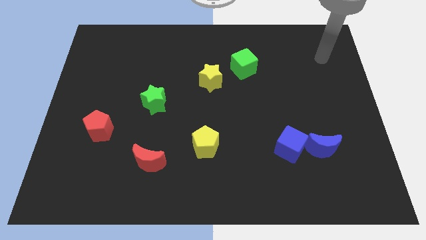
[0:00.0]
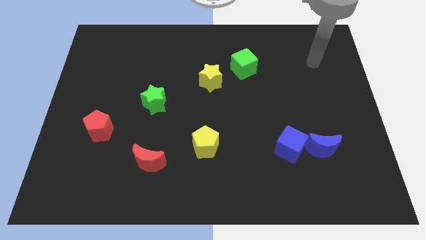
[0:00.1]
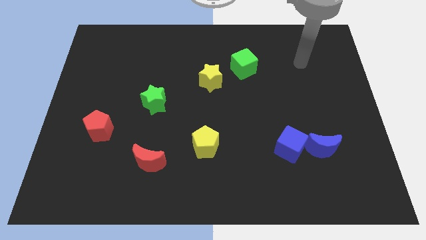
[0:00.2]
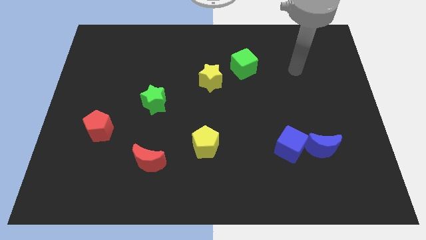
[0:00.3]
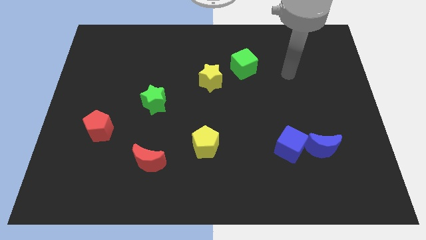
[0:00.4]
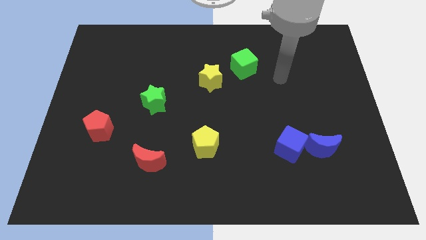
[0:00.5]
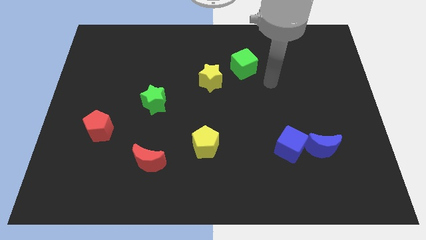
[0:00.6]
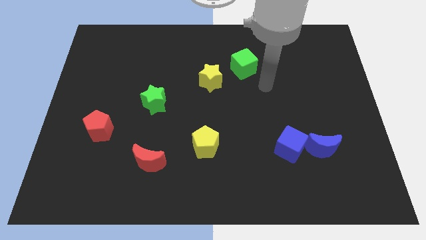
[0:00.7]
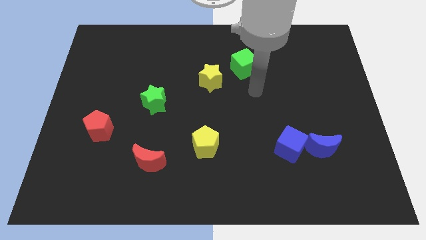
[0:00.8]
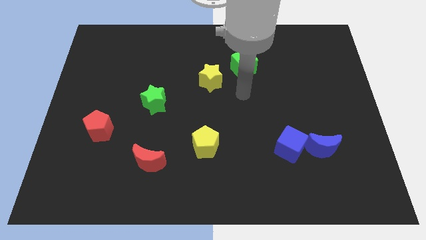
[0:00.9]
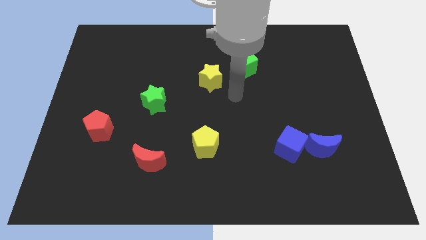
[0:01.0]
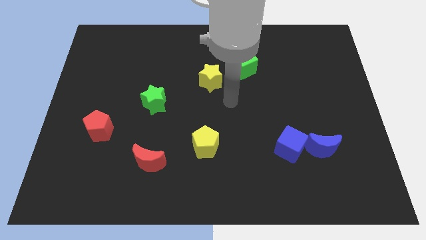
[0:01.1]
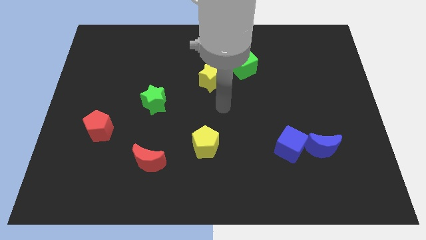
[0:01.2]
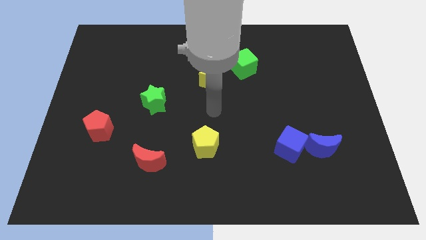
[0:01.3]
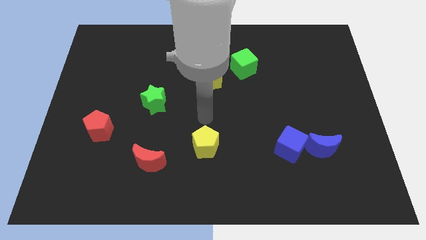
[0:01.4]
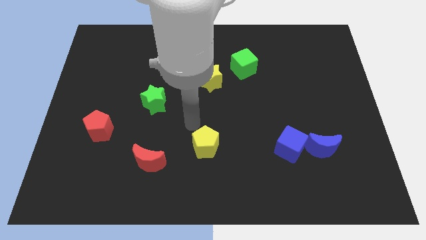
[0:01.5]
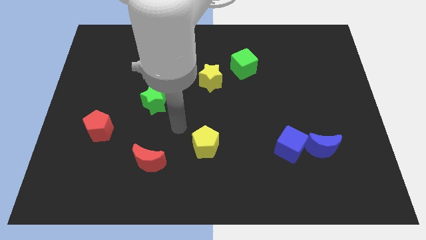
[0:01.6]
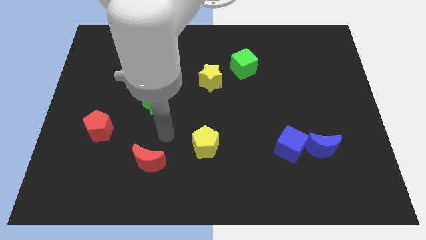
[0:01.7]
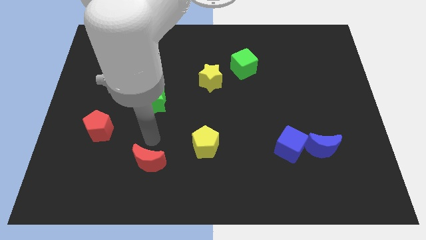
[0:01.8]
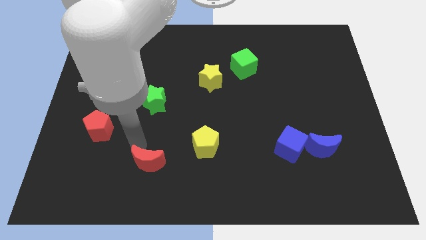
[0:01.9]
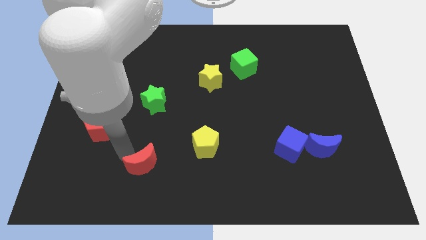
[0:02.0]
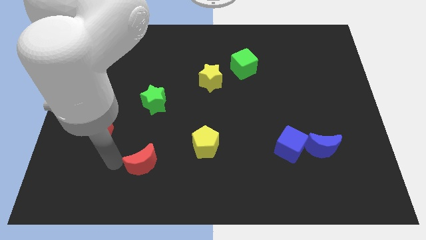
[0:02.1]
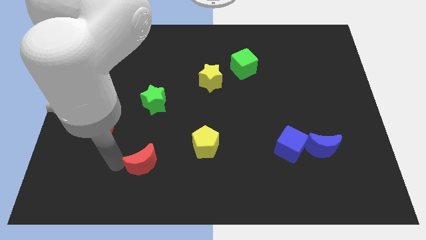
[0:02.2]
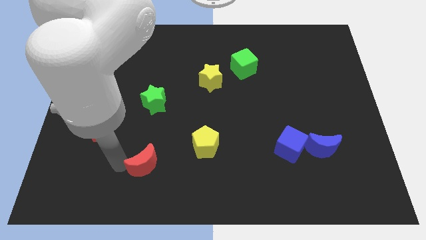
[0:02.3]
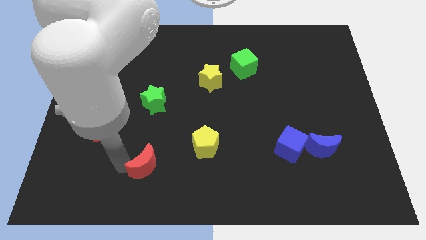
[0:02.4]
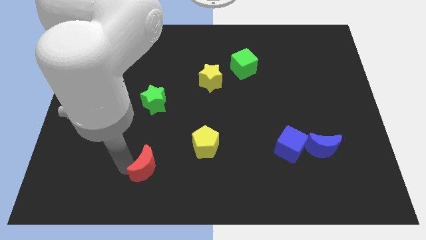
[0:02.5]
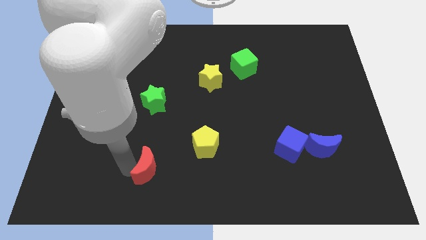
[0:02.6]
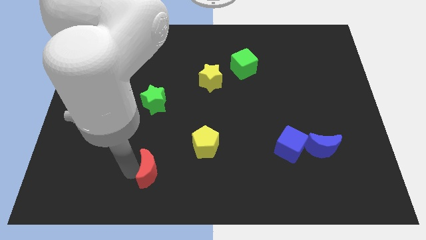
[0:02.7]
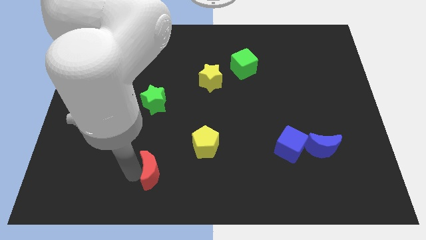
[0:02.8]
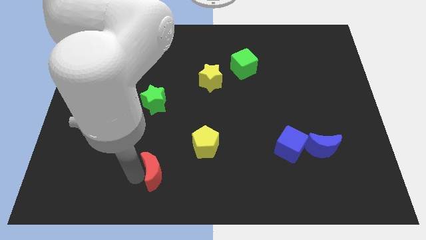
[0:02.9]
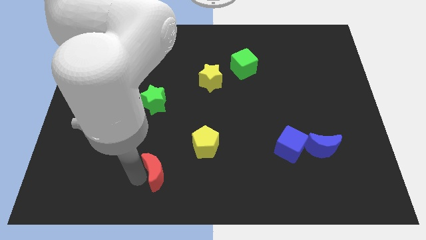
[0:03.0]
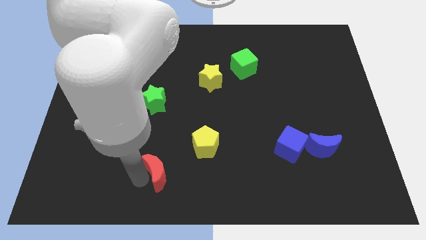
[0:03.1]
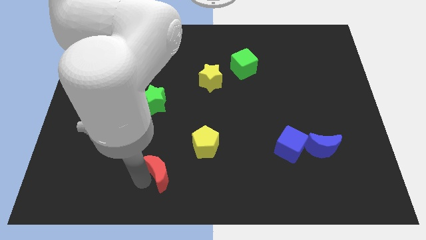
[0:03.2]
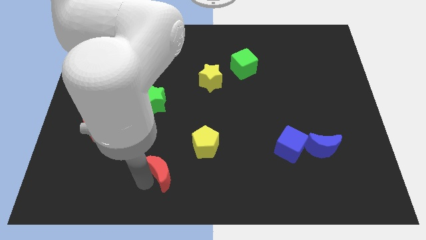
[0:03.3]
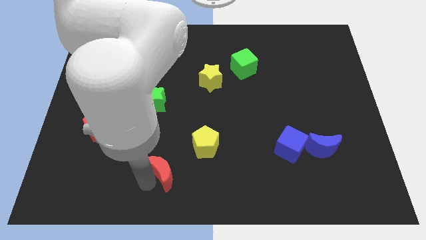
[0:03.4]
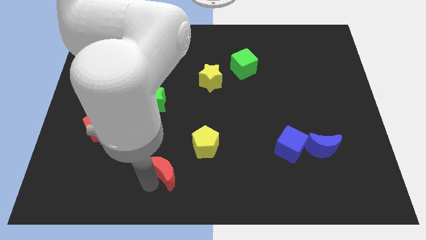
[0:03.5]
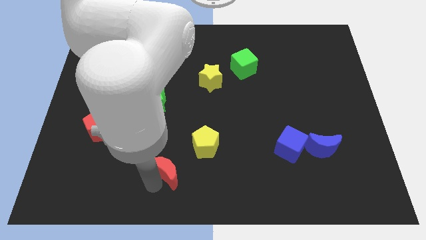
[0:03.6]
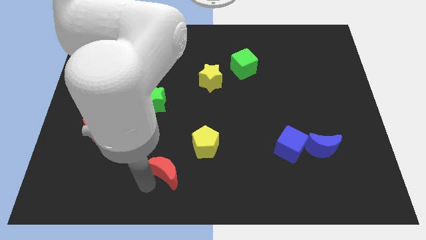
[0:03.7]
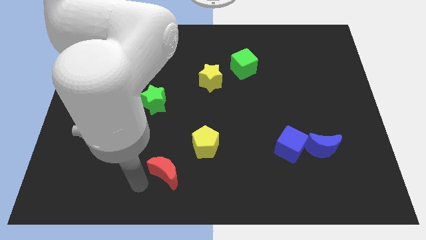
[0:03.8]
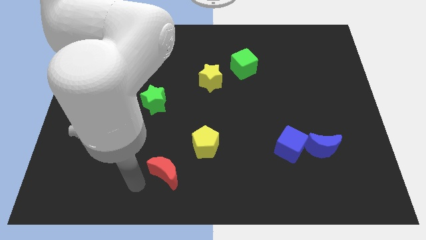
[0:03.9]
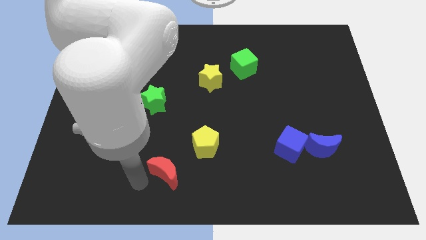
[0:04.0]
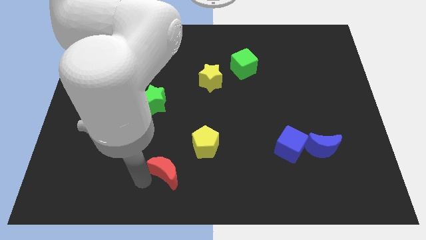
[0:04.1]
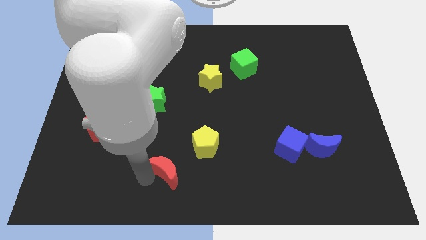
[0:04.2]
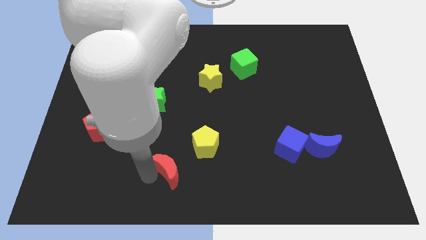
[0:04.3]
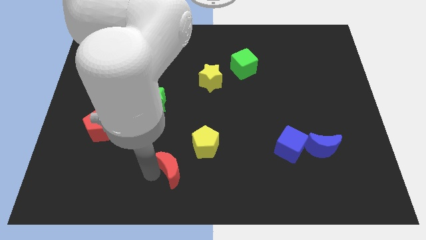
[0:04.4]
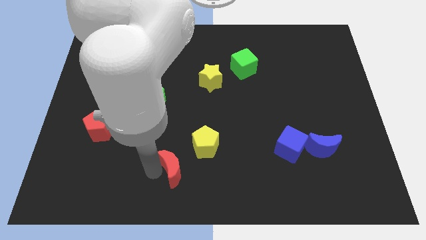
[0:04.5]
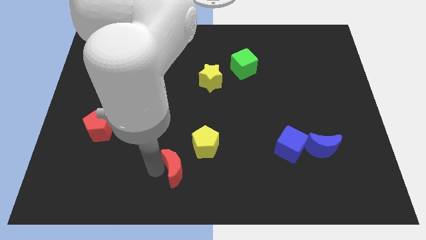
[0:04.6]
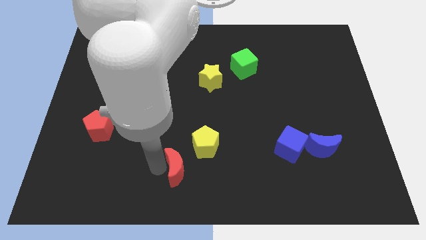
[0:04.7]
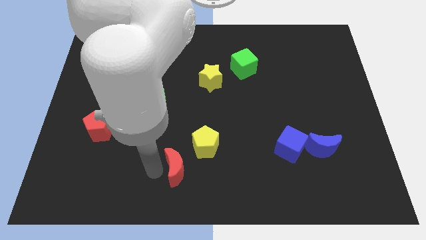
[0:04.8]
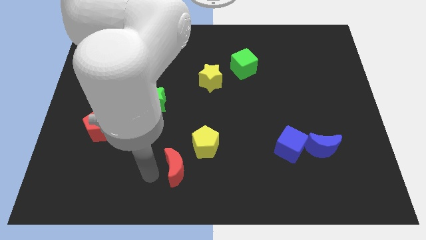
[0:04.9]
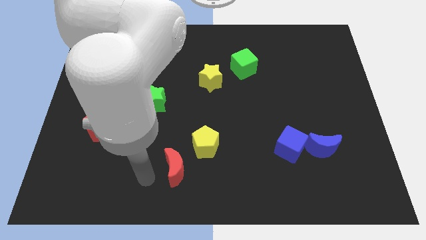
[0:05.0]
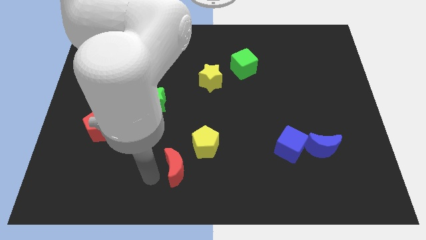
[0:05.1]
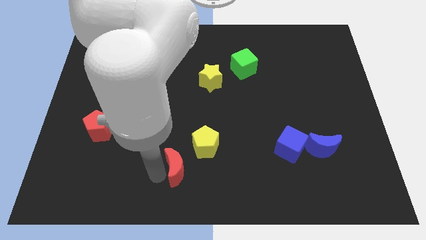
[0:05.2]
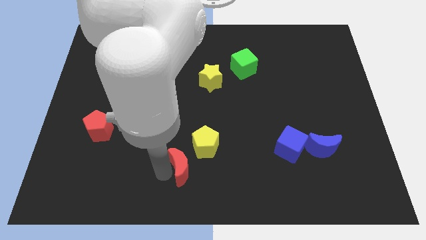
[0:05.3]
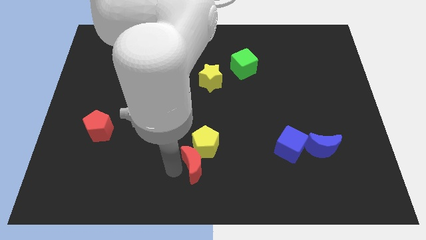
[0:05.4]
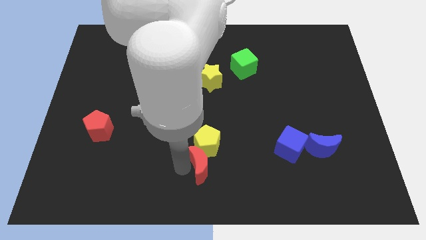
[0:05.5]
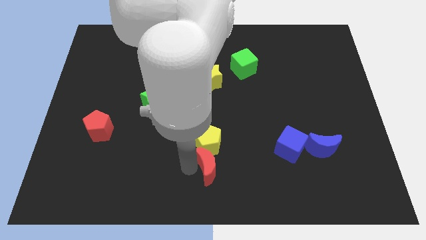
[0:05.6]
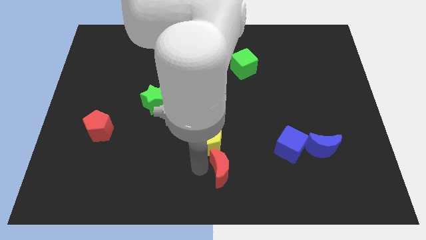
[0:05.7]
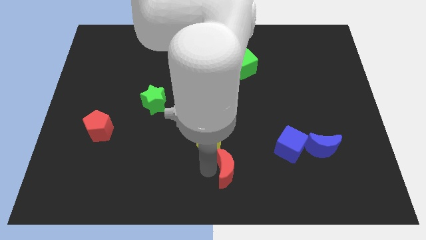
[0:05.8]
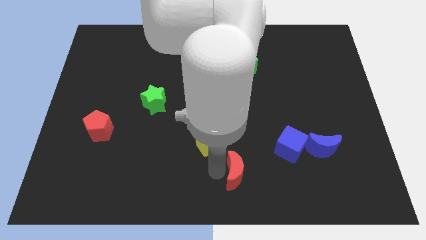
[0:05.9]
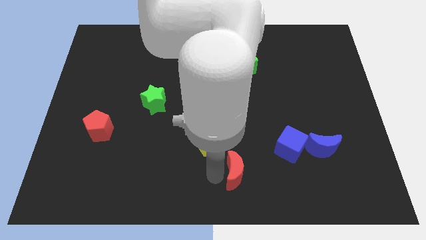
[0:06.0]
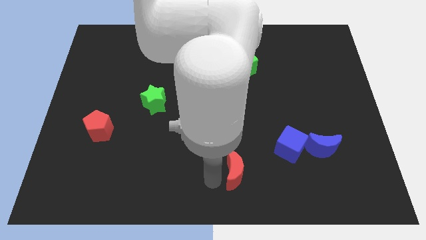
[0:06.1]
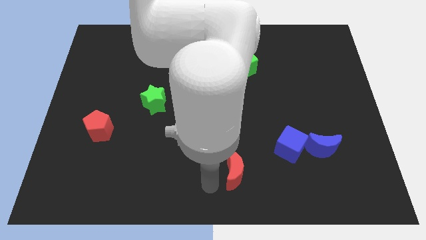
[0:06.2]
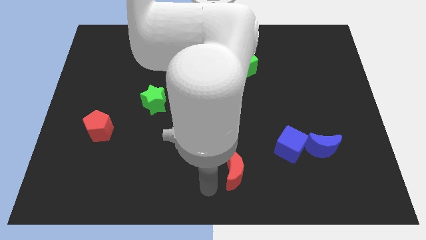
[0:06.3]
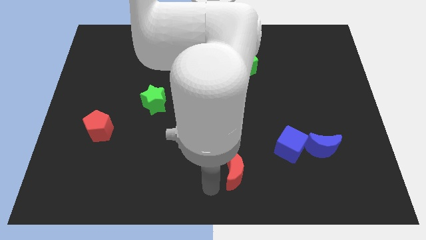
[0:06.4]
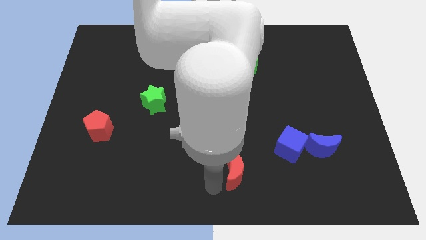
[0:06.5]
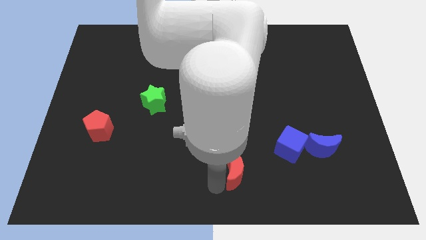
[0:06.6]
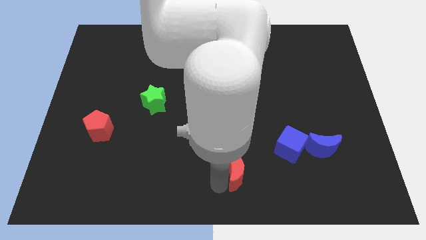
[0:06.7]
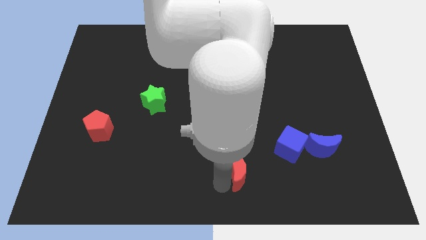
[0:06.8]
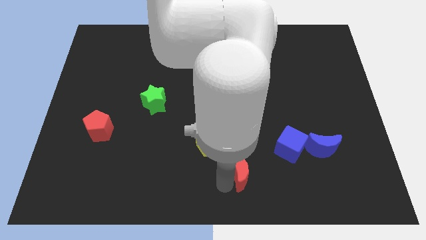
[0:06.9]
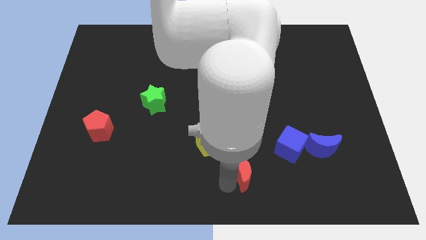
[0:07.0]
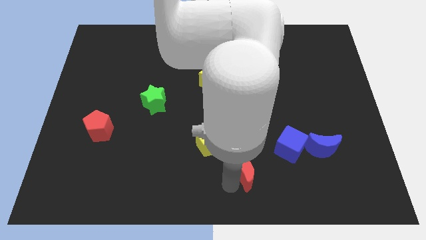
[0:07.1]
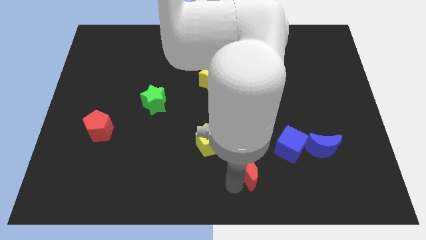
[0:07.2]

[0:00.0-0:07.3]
push the red moon to the right

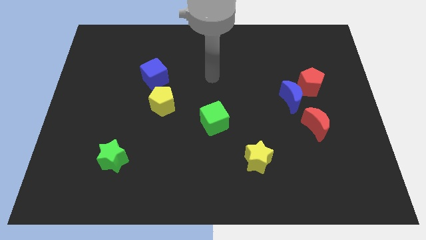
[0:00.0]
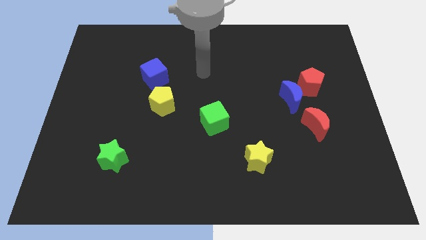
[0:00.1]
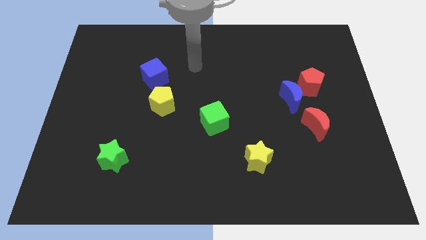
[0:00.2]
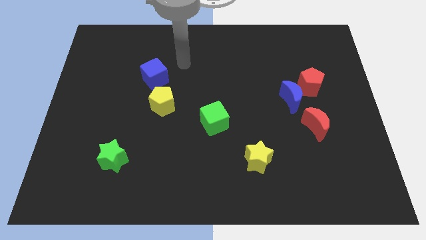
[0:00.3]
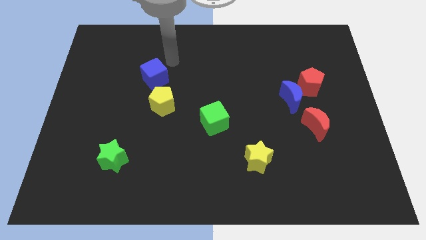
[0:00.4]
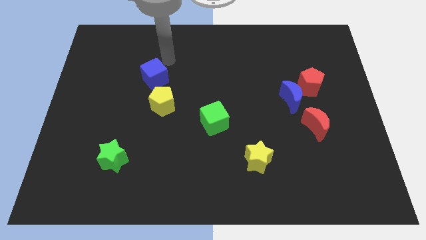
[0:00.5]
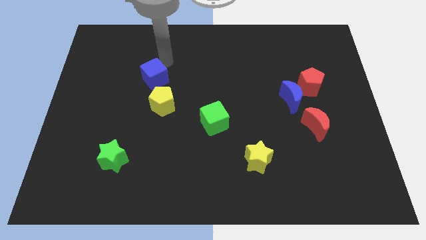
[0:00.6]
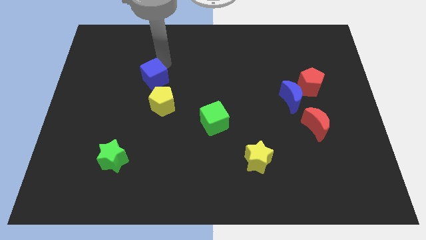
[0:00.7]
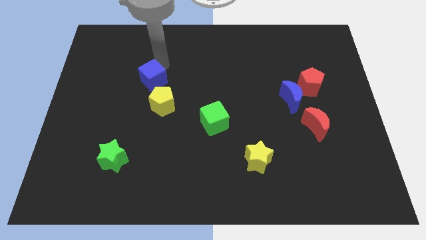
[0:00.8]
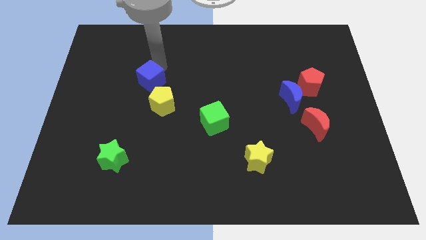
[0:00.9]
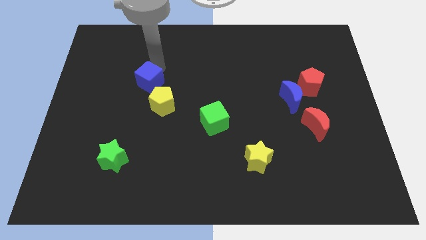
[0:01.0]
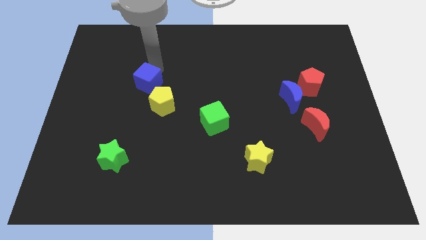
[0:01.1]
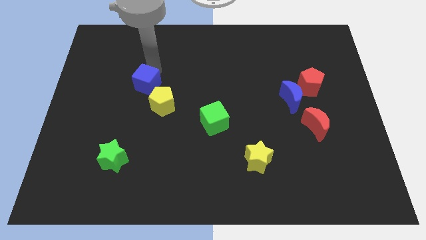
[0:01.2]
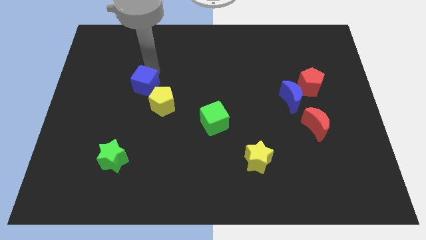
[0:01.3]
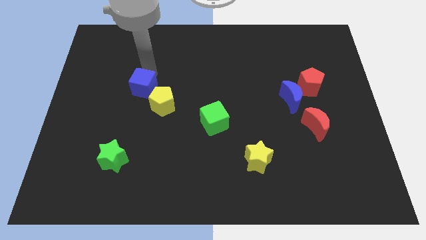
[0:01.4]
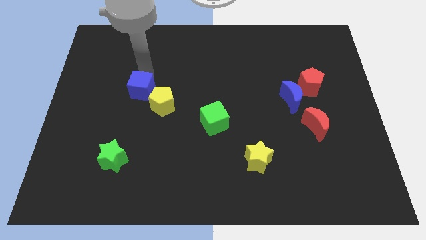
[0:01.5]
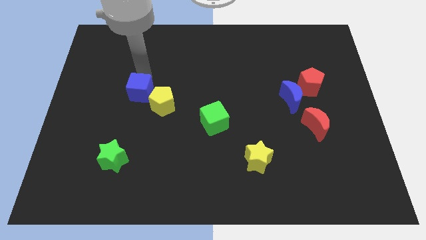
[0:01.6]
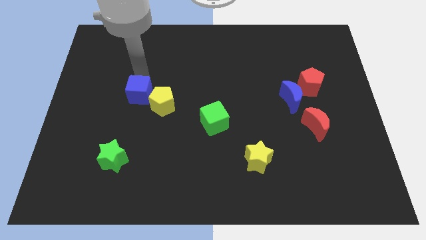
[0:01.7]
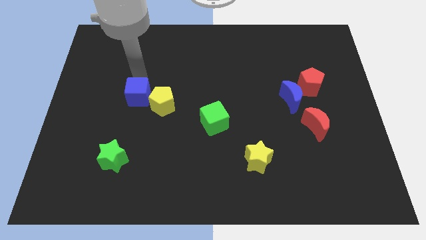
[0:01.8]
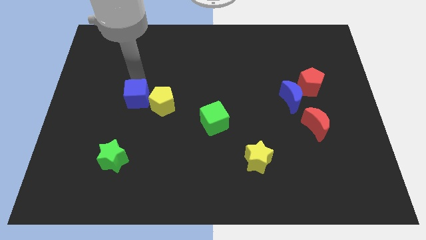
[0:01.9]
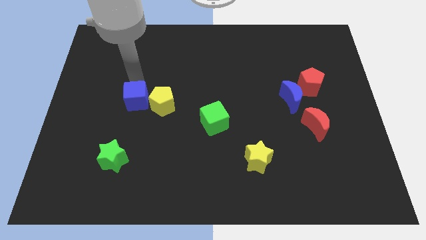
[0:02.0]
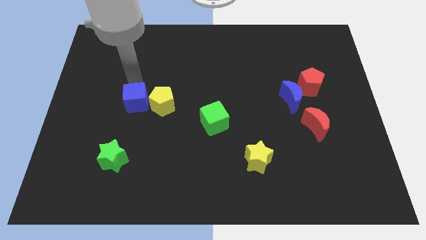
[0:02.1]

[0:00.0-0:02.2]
push the blue cube downwards a bit
